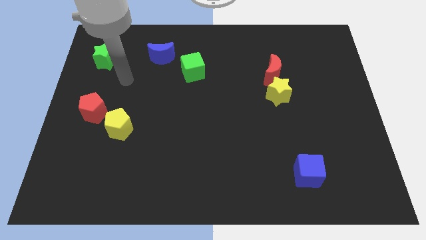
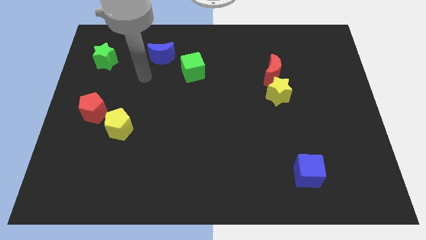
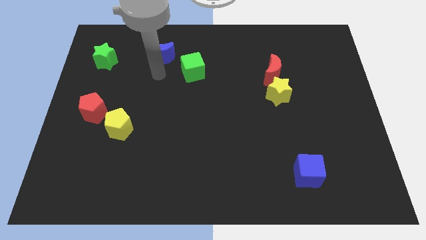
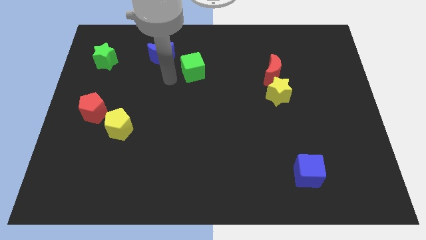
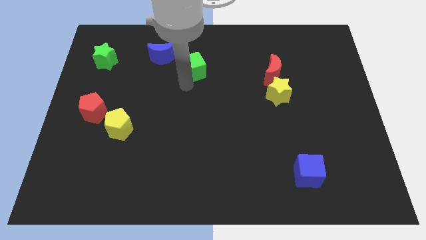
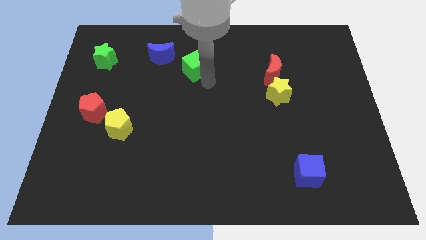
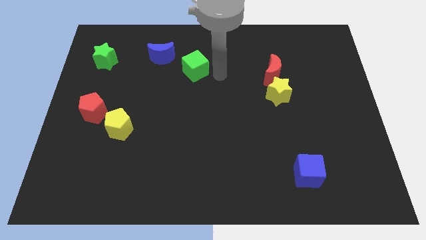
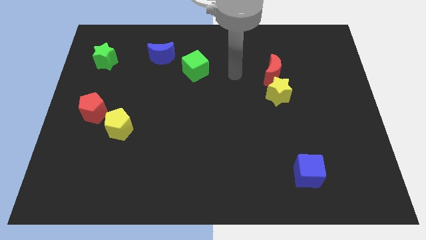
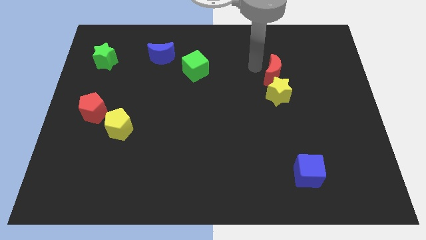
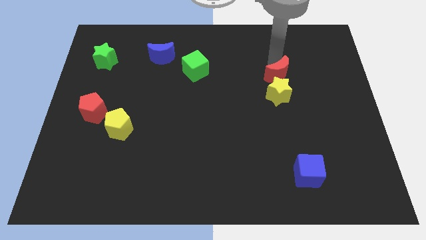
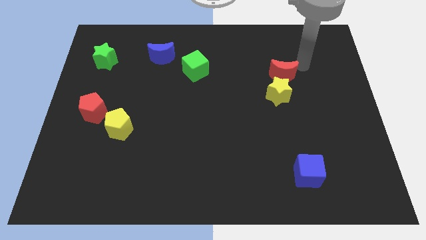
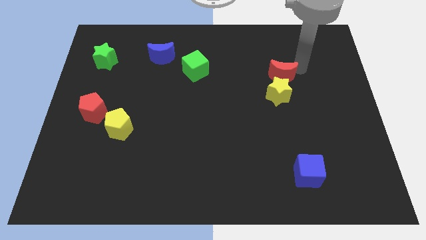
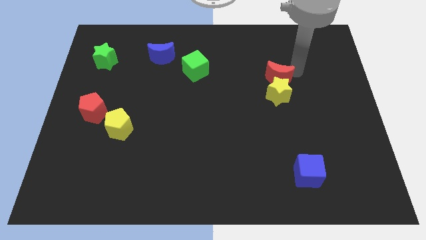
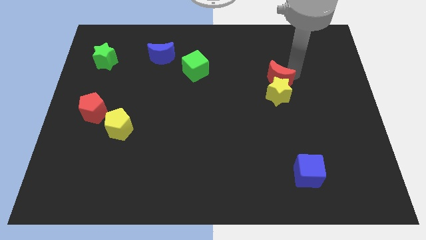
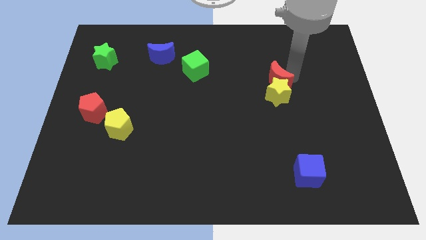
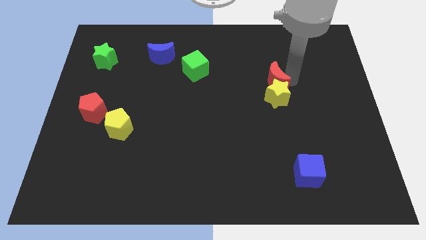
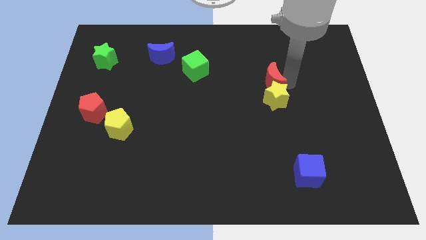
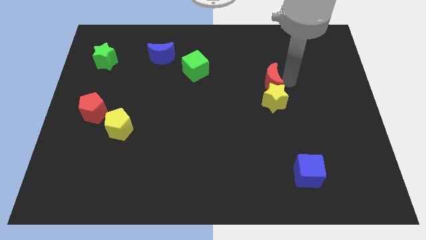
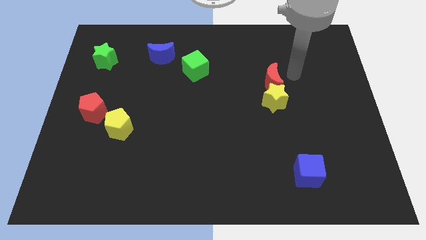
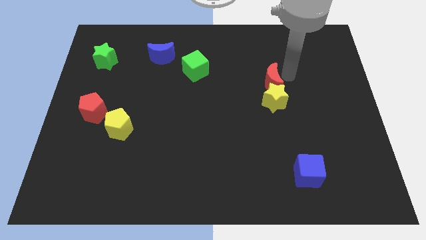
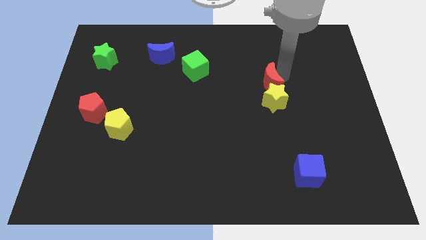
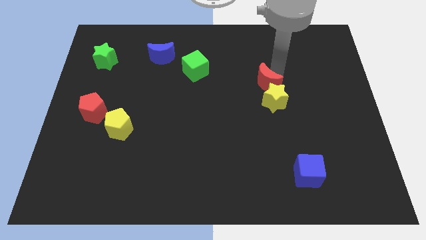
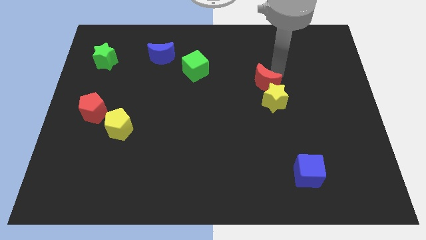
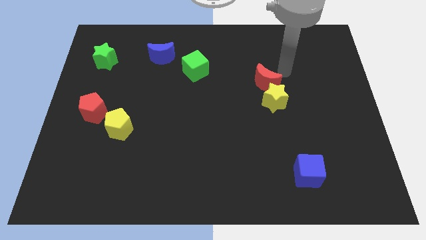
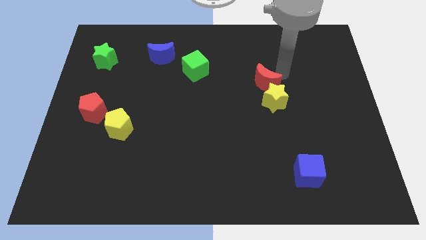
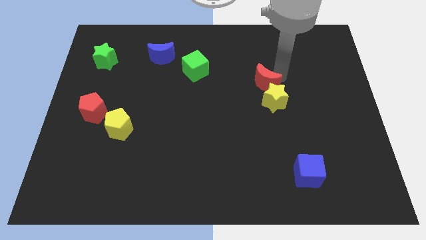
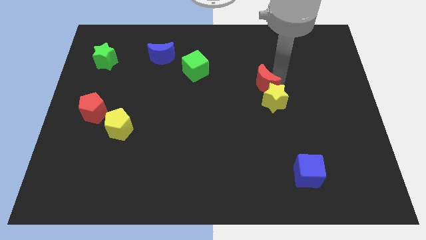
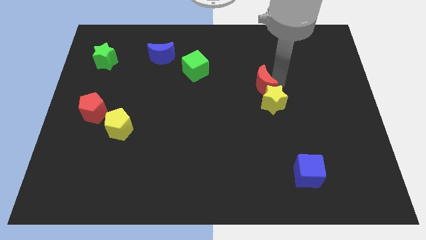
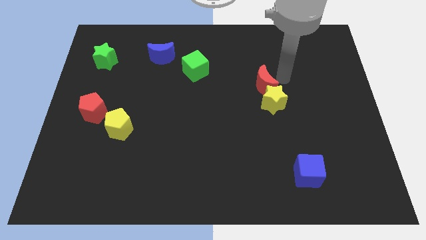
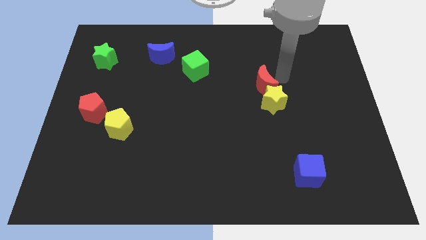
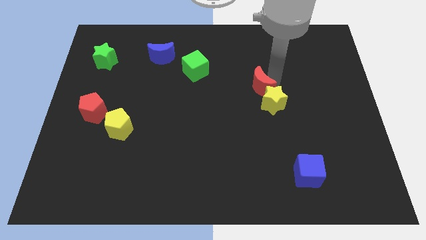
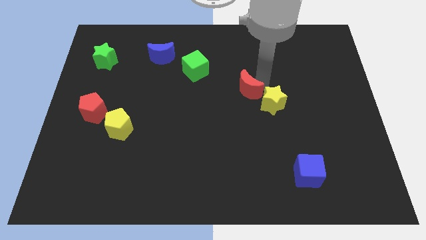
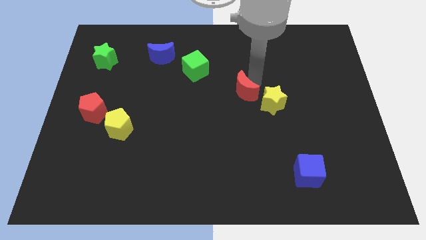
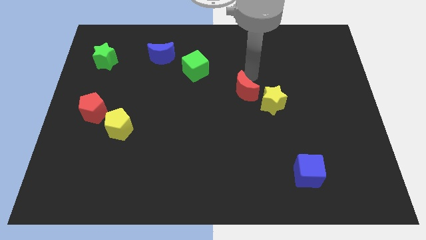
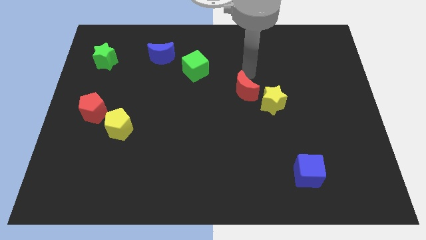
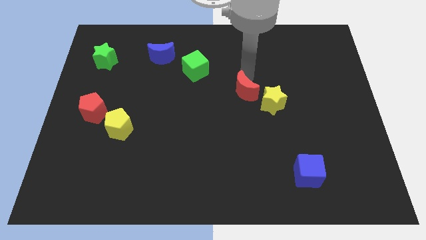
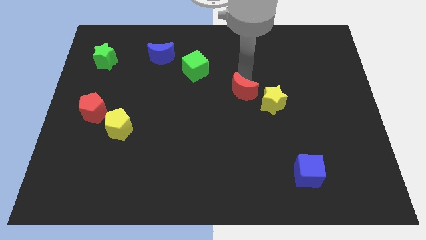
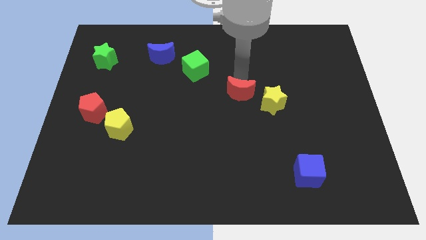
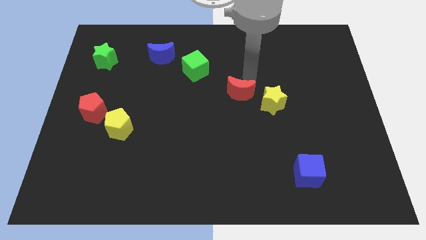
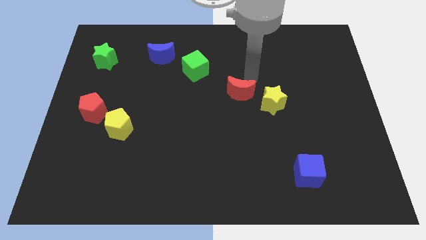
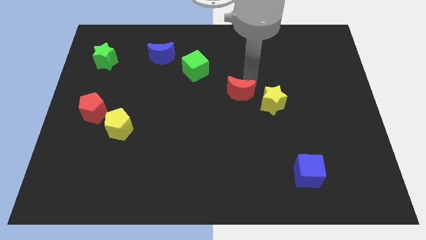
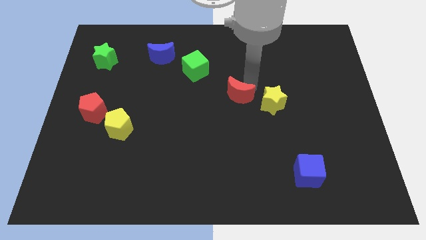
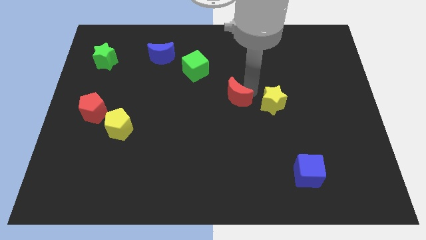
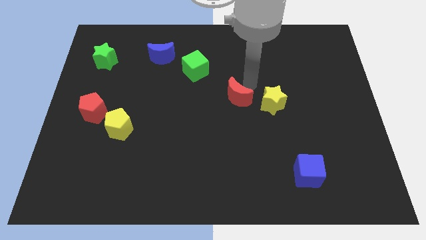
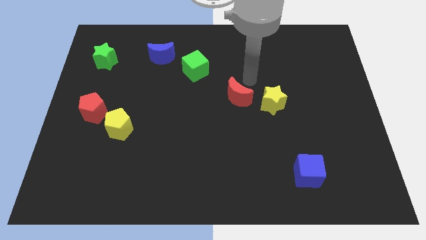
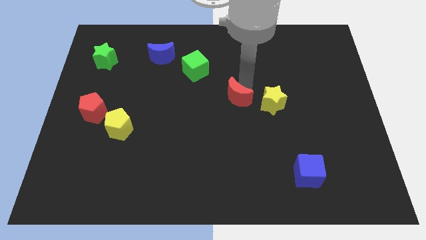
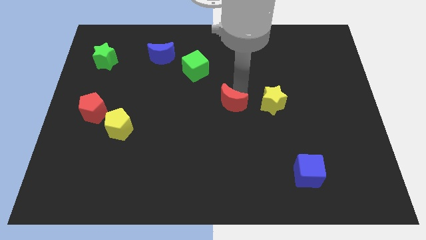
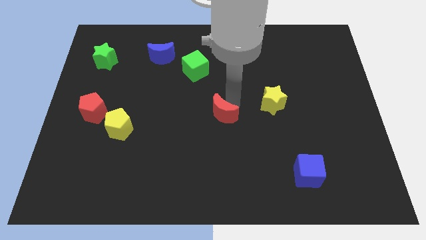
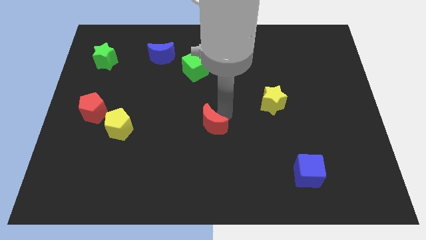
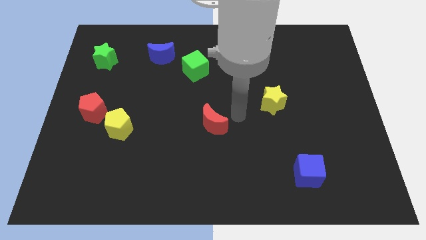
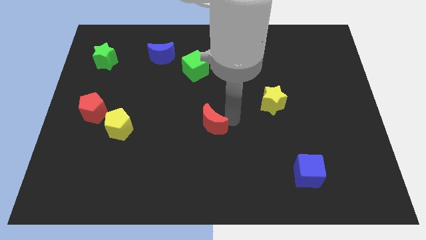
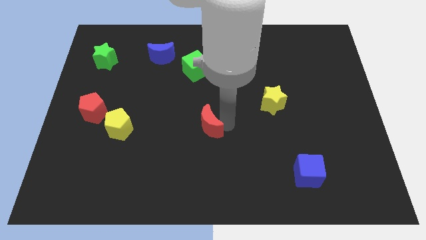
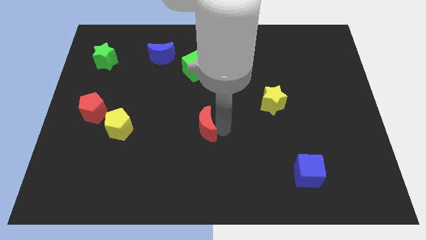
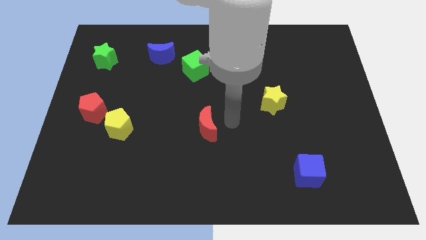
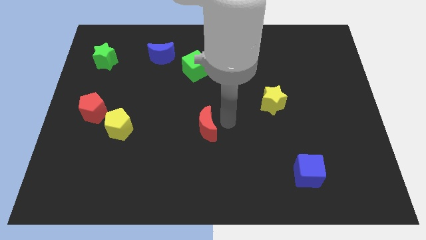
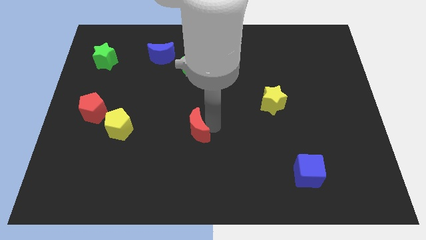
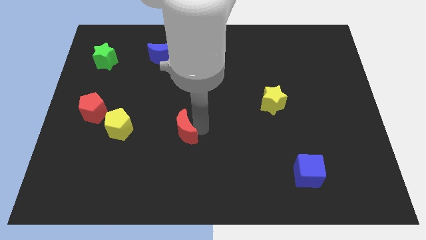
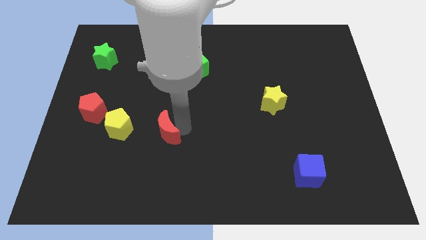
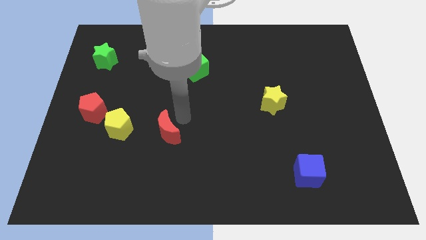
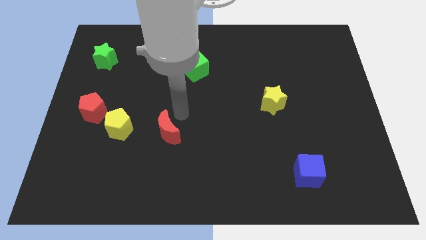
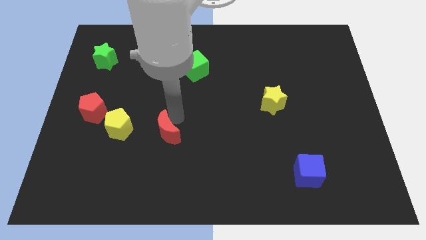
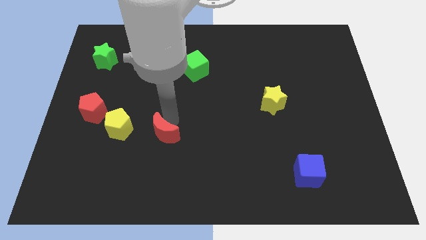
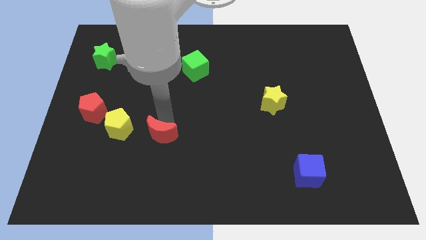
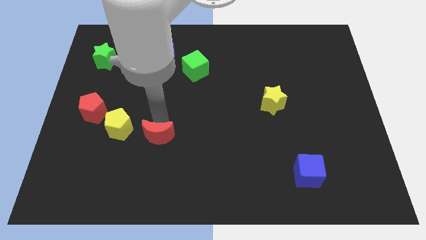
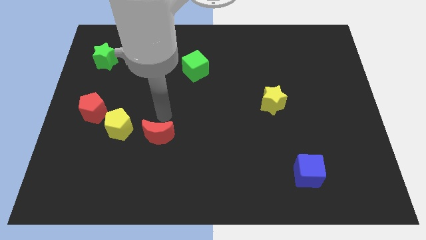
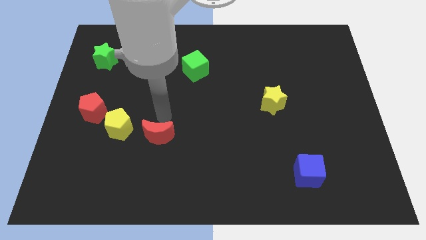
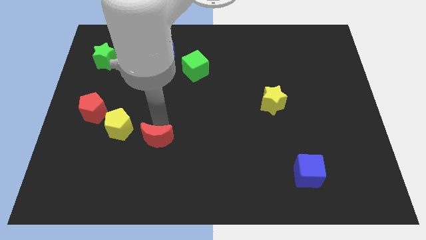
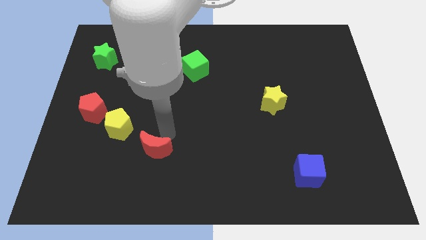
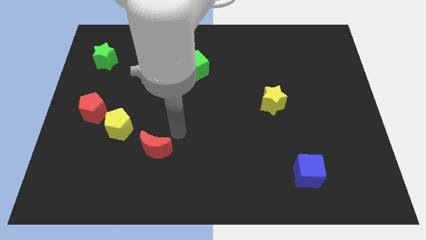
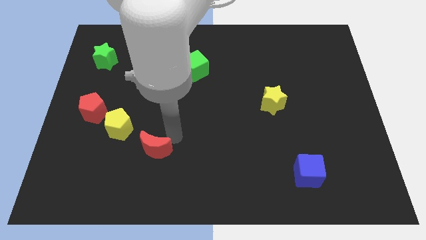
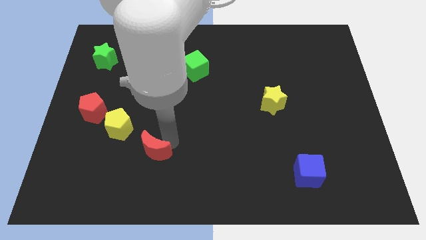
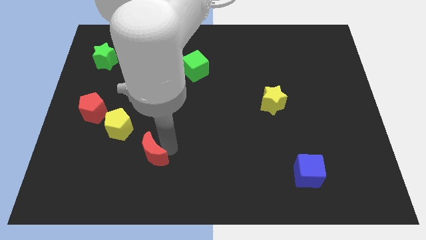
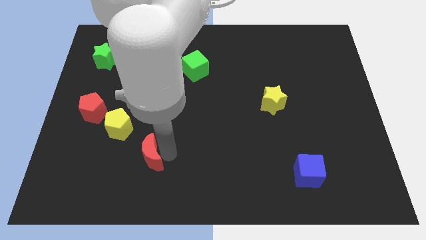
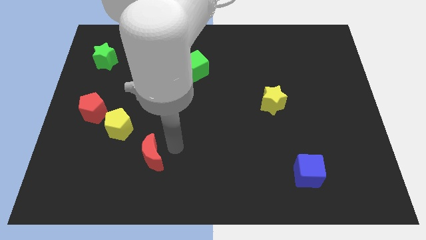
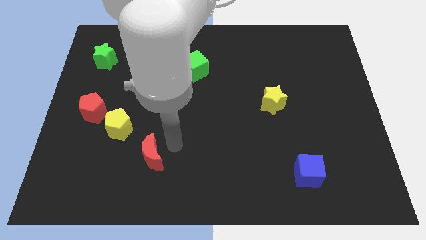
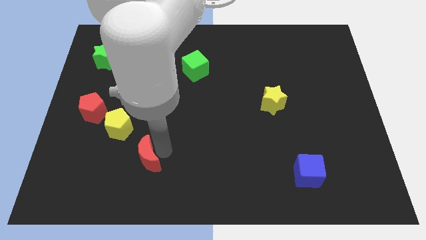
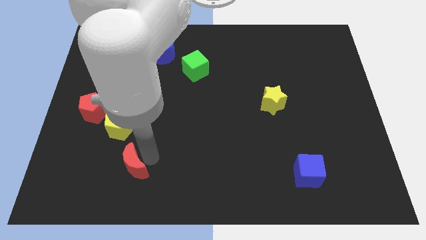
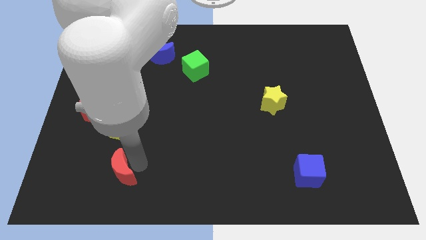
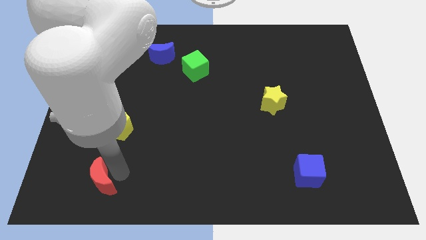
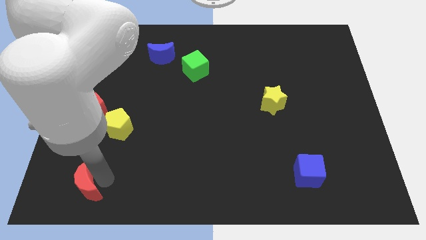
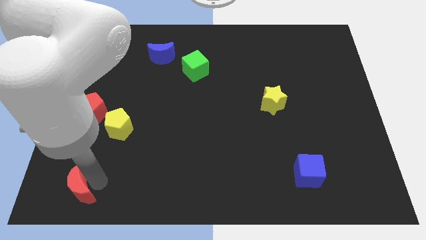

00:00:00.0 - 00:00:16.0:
move the red moon to the bottom left of the board
